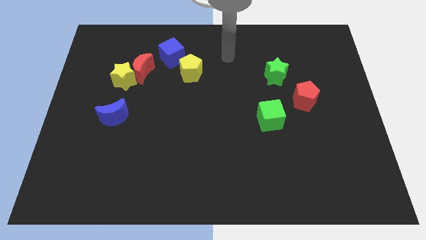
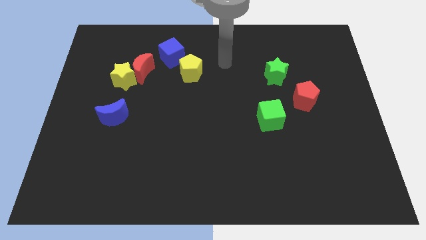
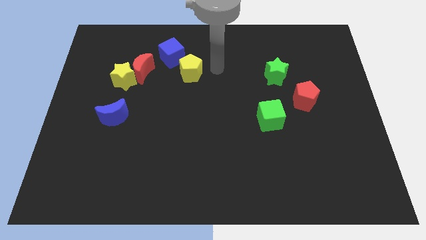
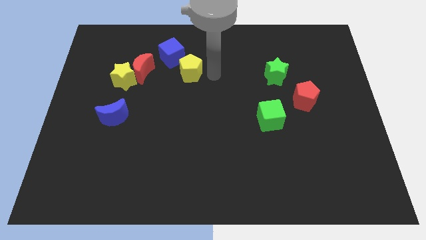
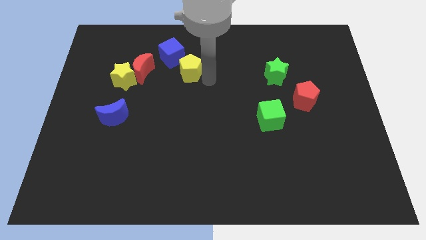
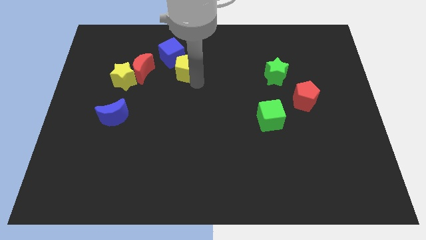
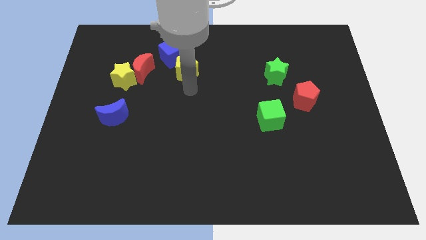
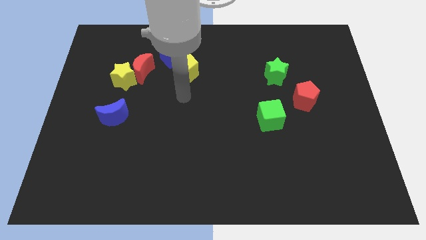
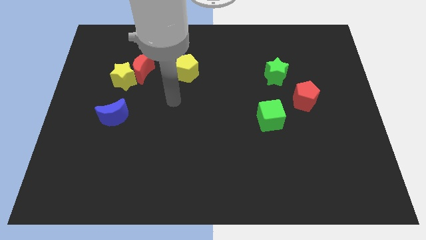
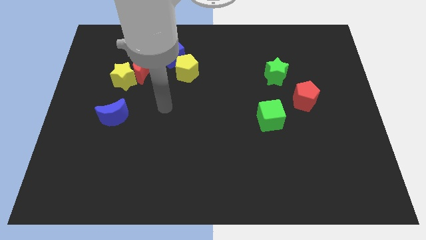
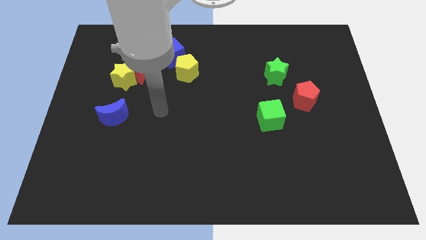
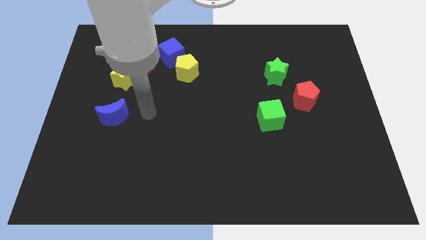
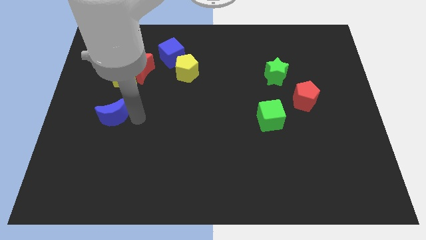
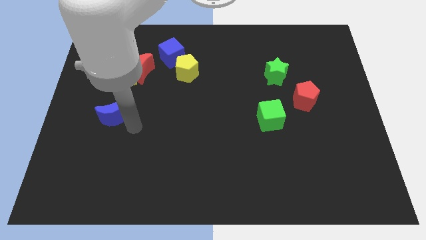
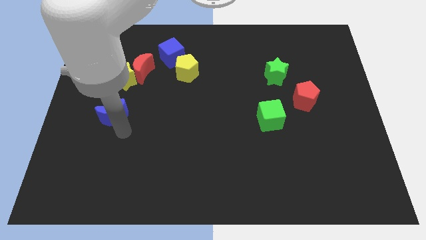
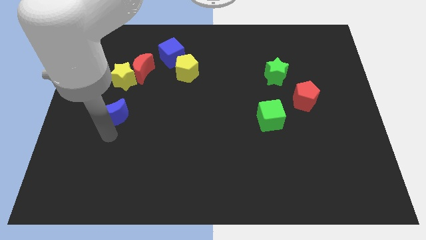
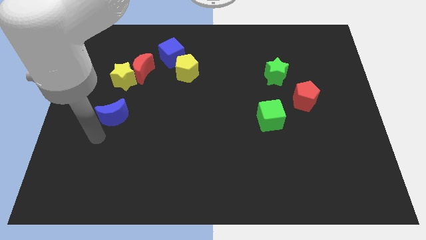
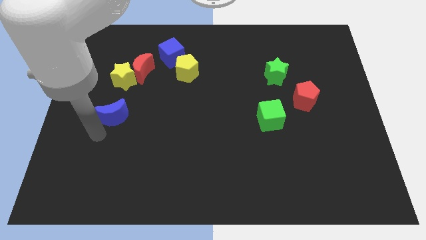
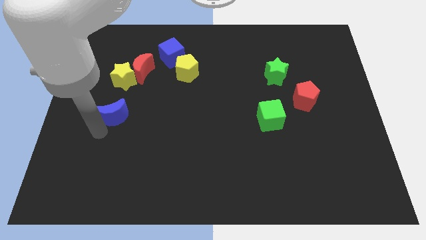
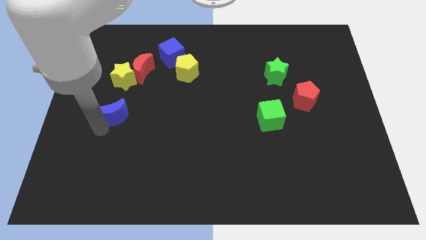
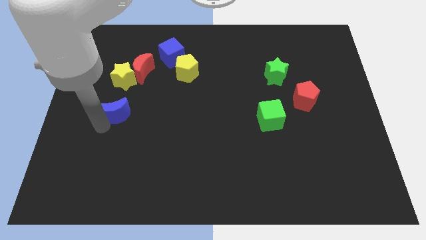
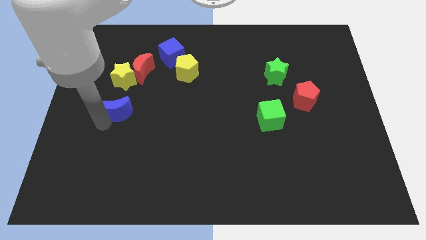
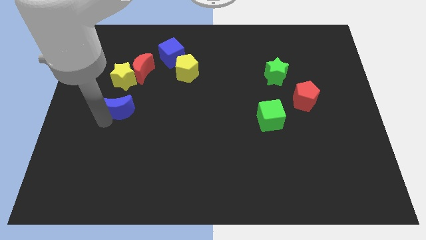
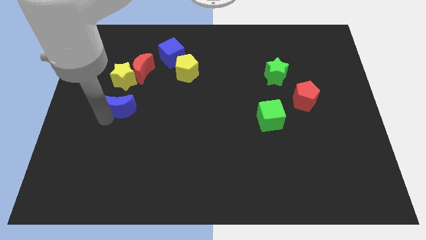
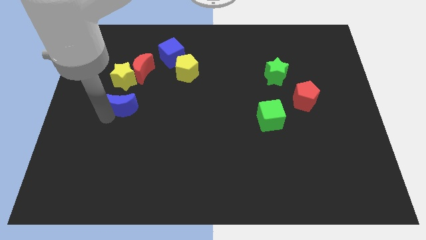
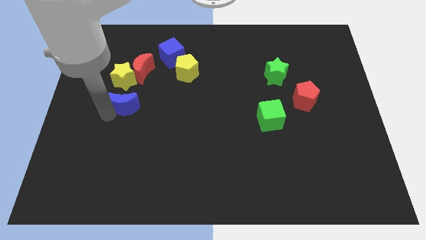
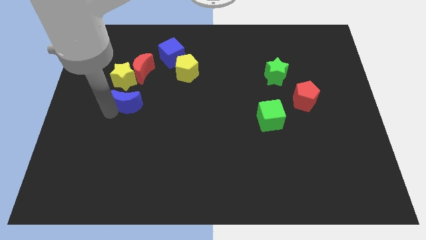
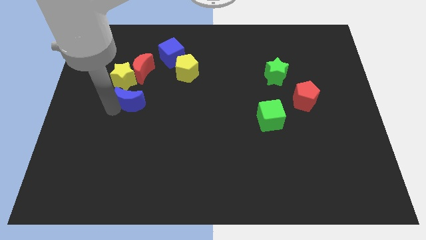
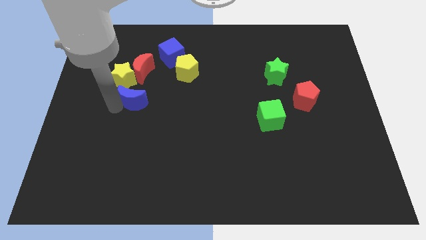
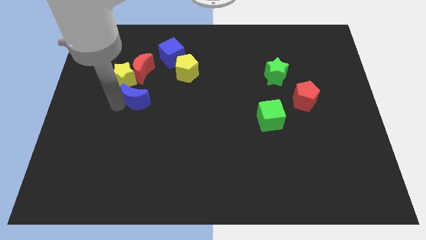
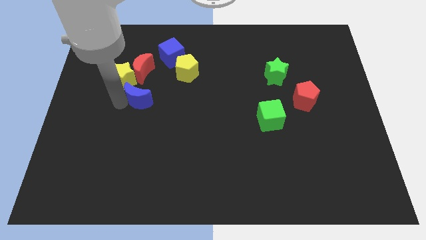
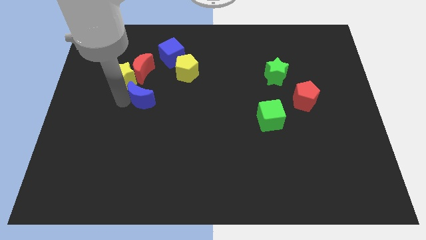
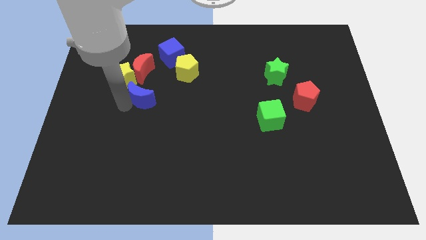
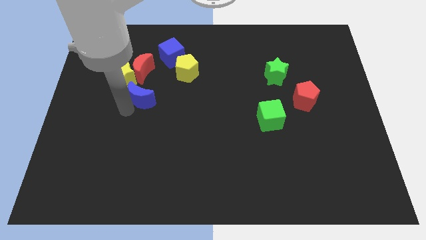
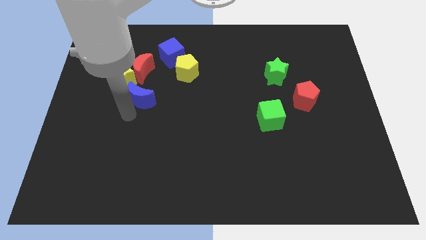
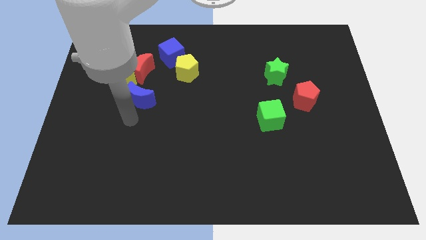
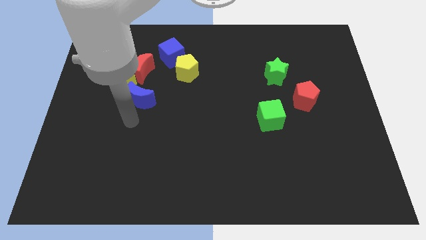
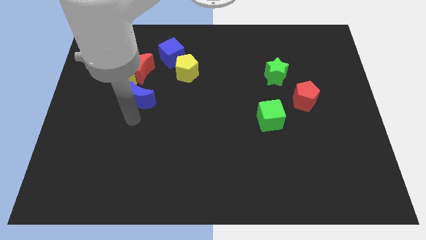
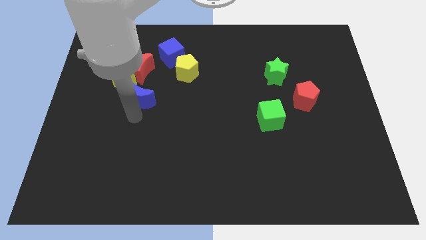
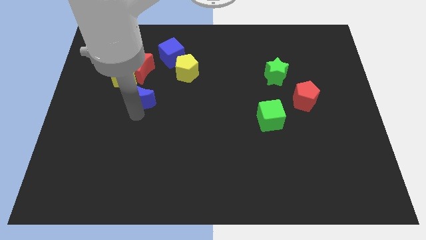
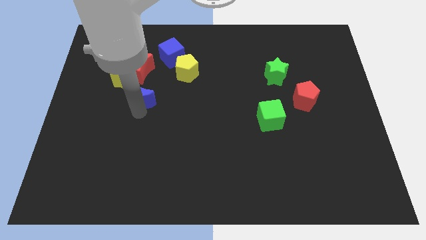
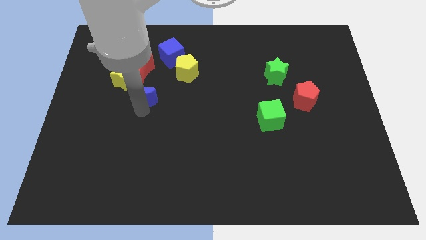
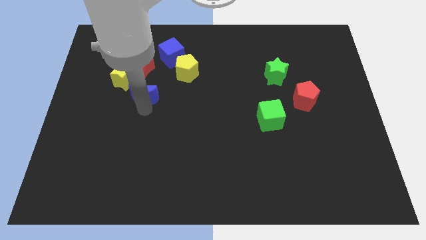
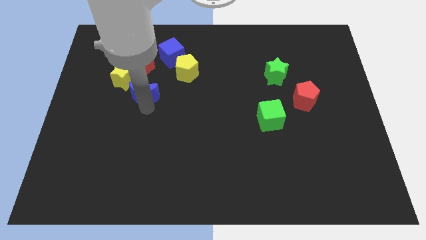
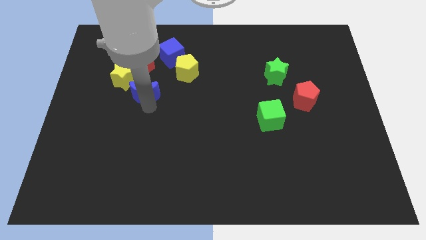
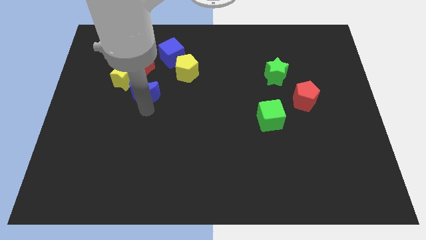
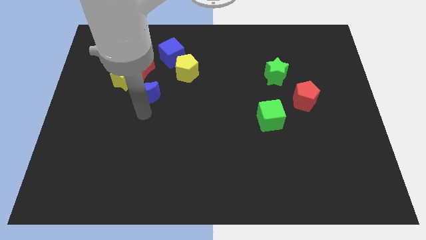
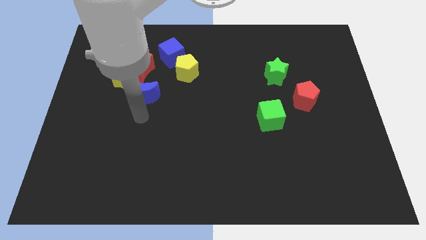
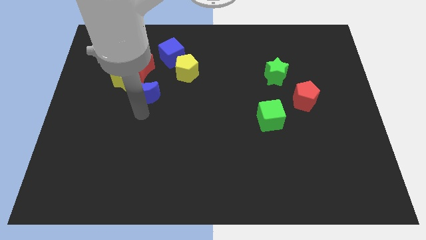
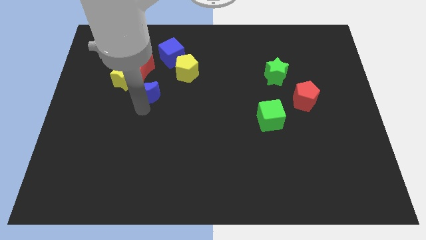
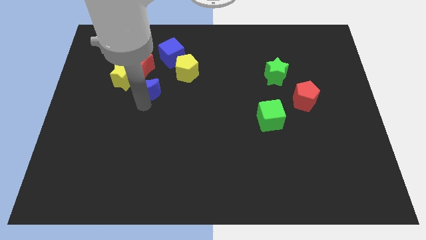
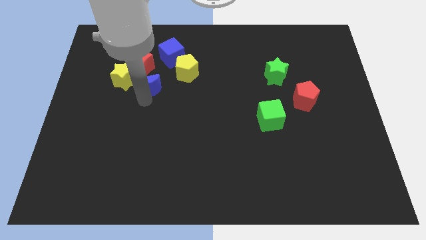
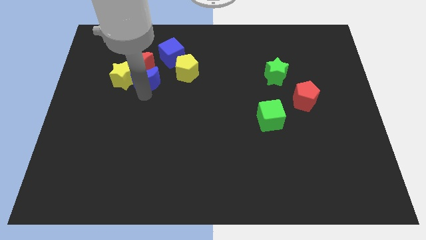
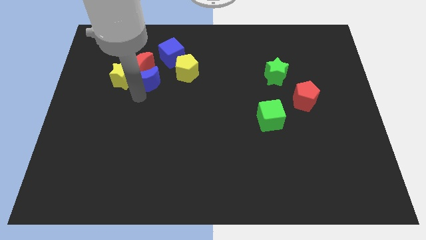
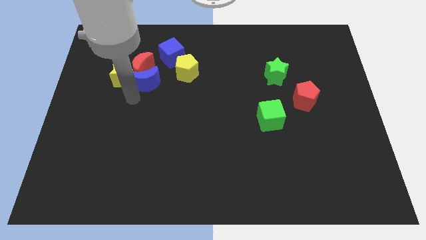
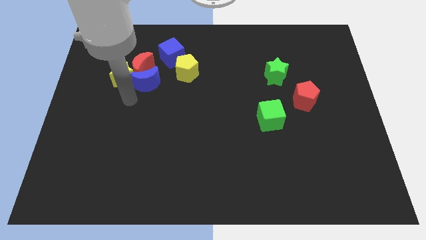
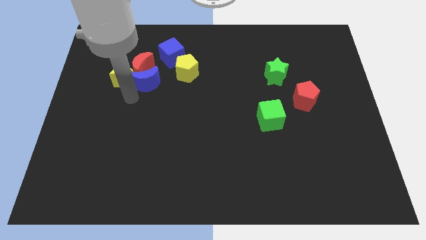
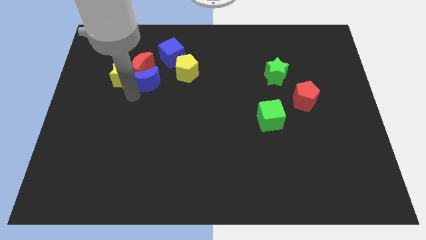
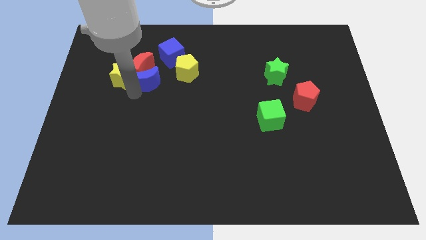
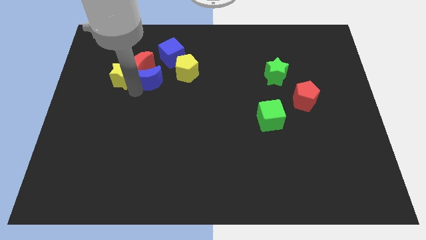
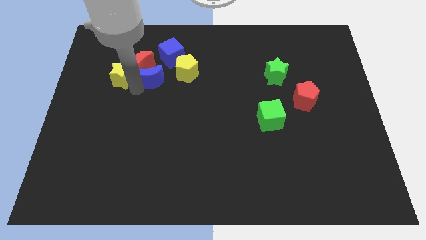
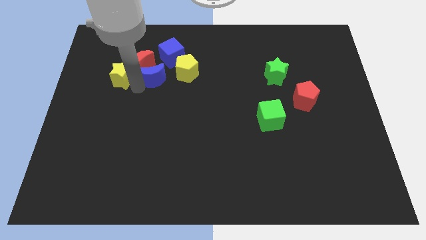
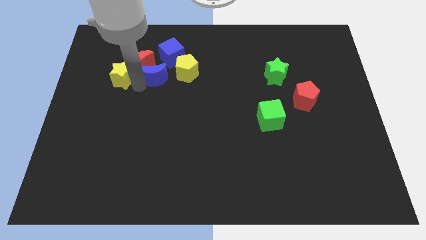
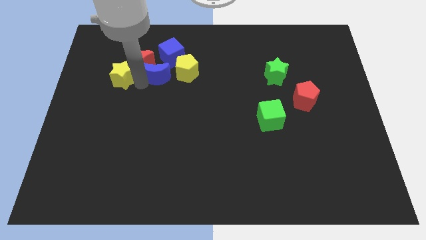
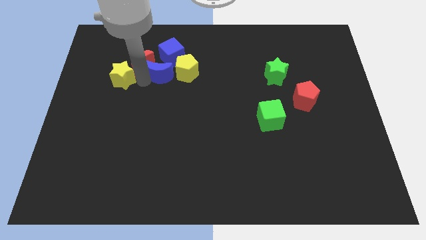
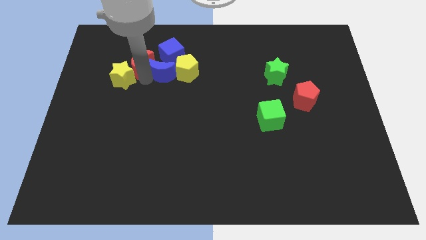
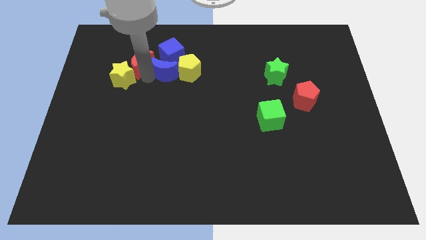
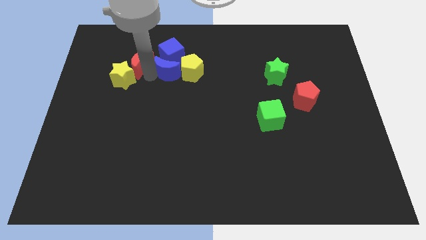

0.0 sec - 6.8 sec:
put the blue moon towards the blue cube

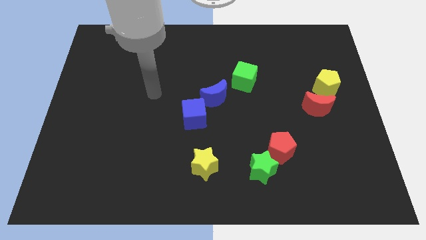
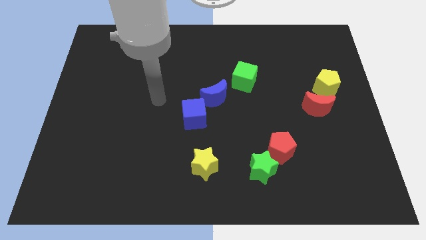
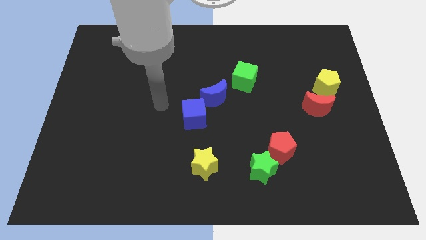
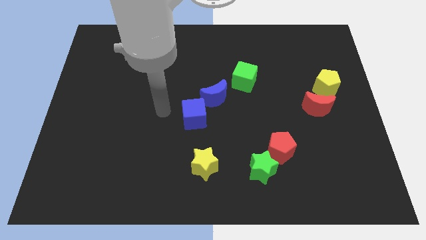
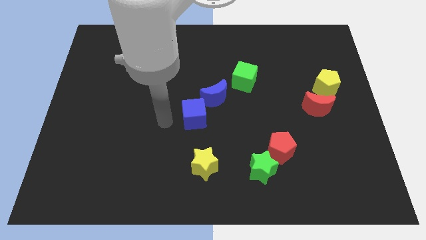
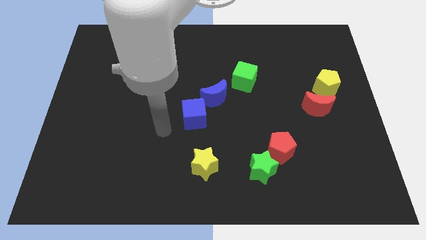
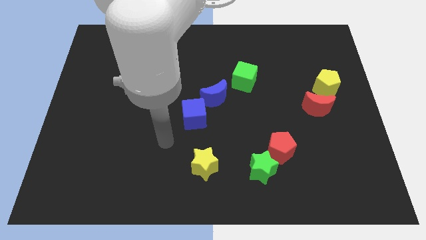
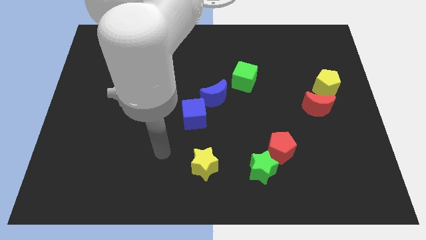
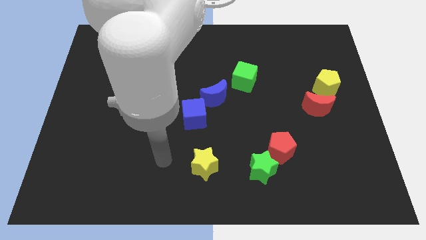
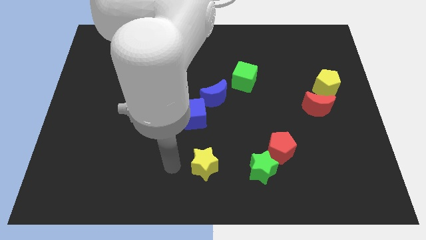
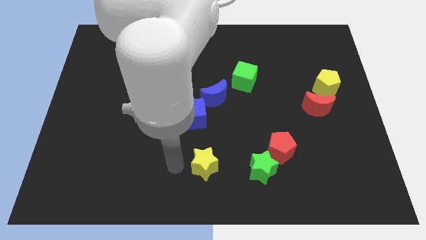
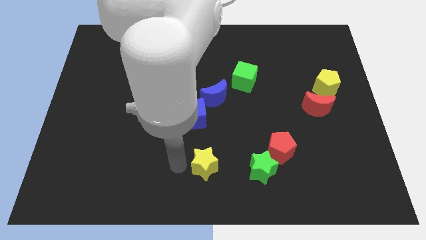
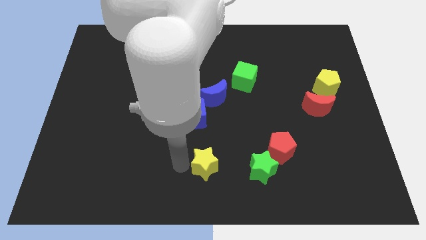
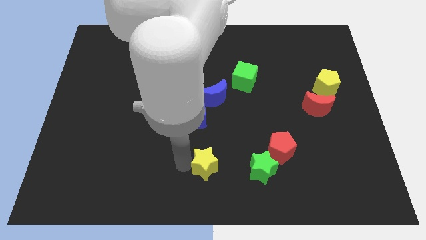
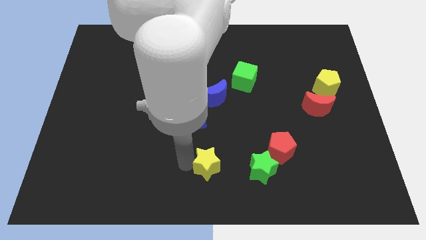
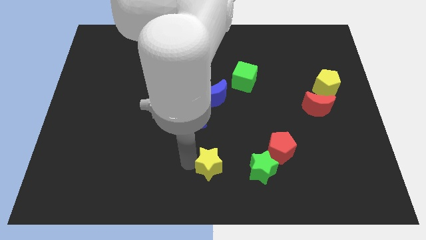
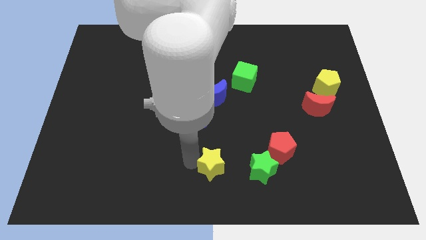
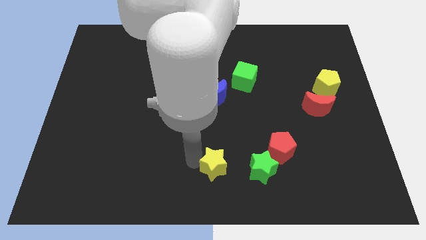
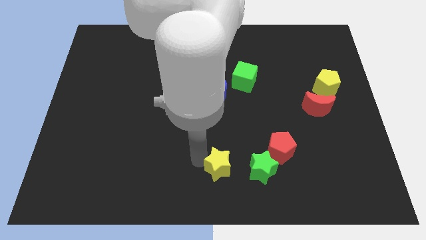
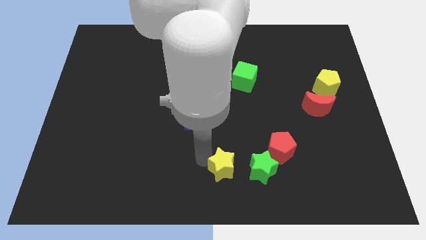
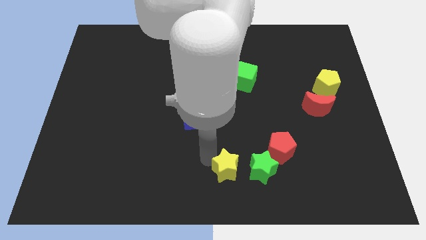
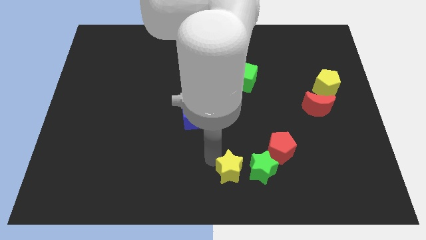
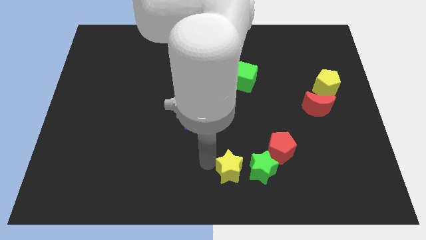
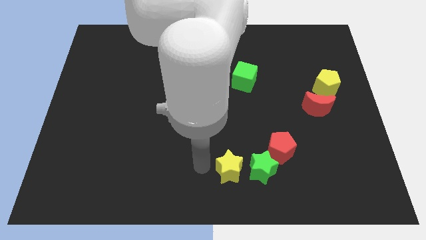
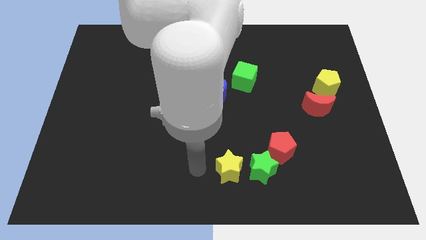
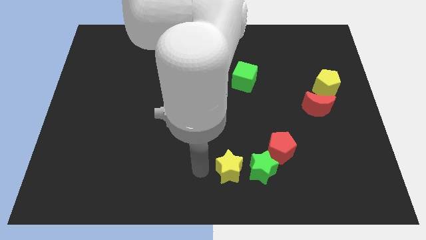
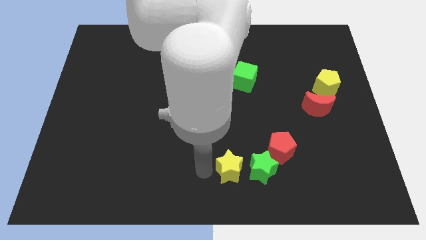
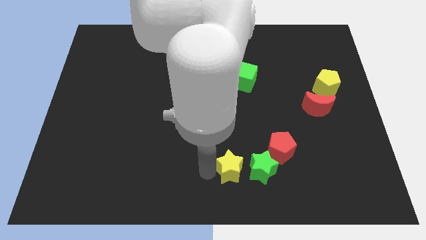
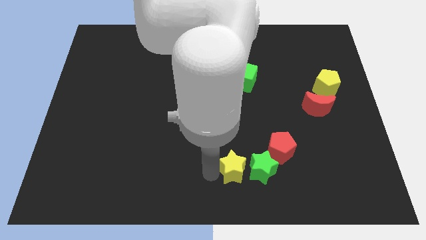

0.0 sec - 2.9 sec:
put the yellow star towards the green star
